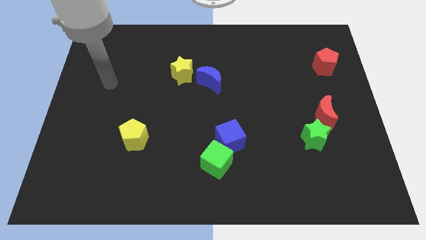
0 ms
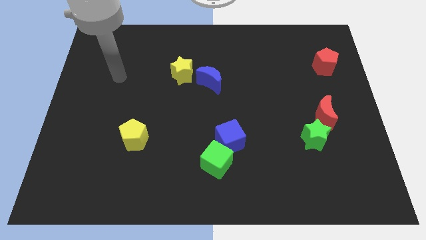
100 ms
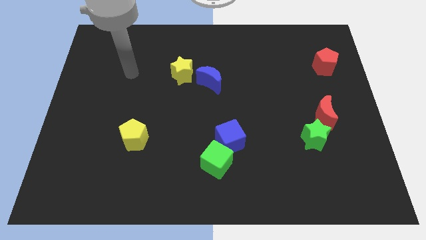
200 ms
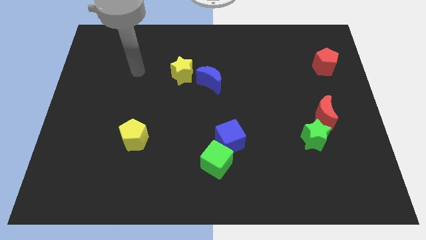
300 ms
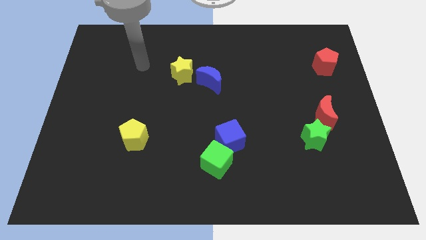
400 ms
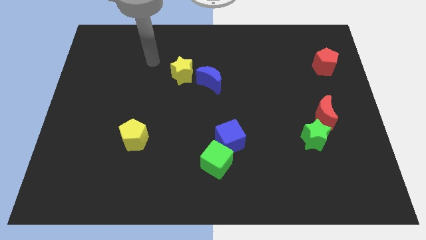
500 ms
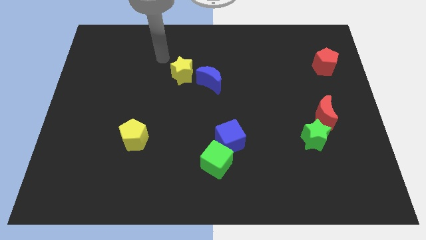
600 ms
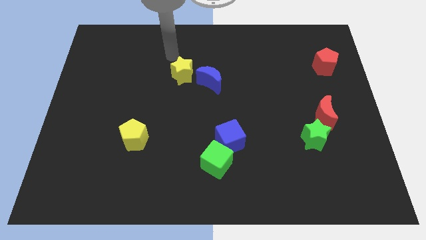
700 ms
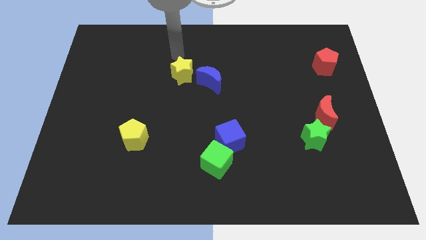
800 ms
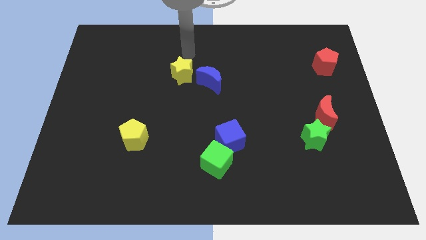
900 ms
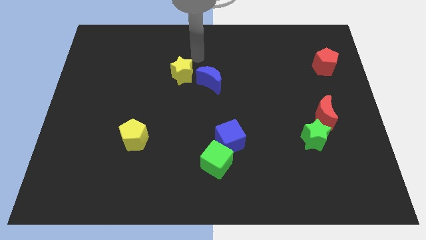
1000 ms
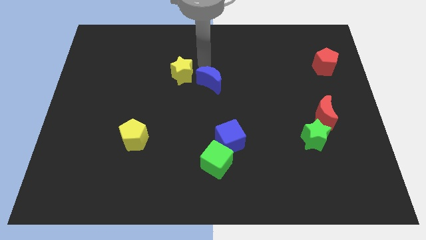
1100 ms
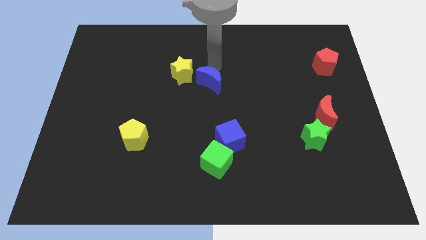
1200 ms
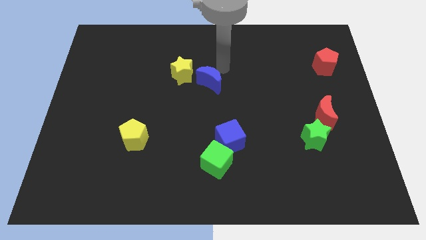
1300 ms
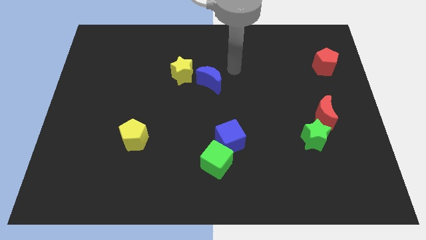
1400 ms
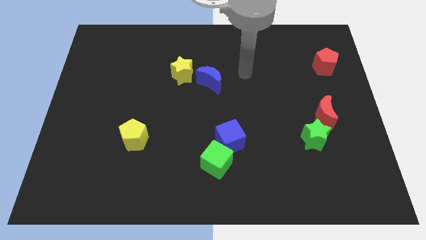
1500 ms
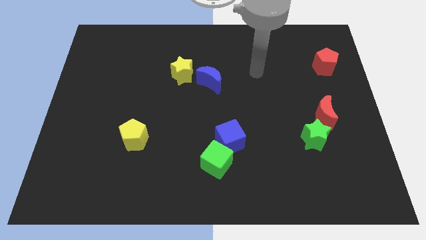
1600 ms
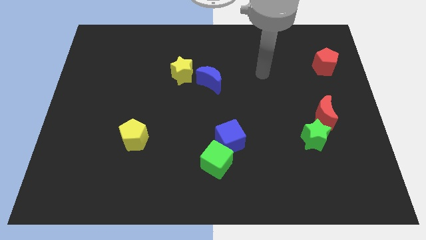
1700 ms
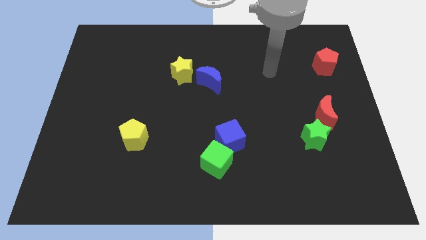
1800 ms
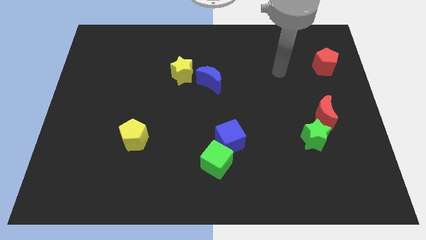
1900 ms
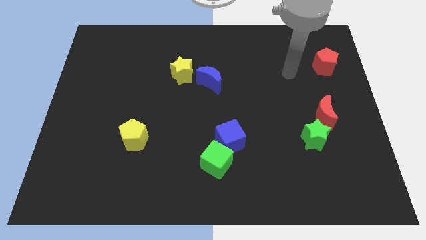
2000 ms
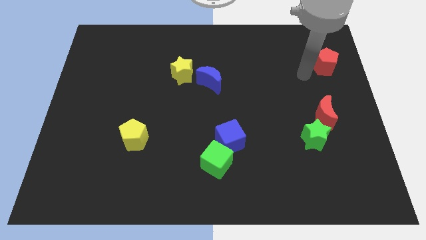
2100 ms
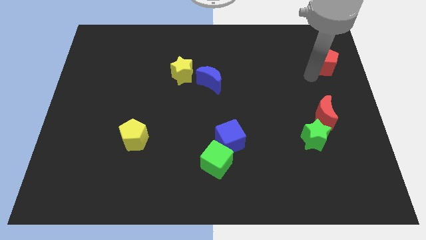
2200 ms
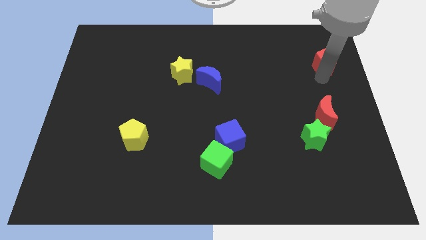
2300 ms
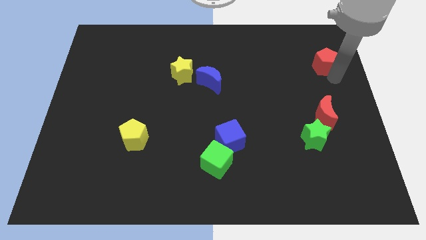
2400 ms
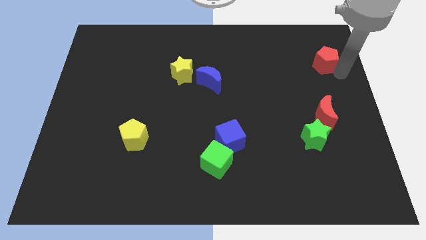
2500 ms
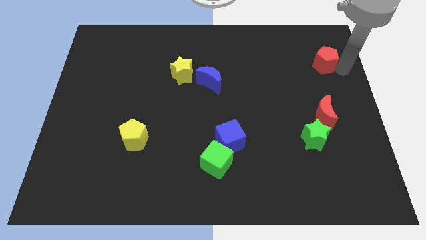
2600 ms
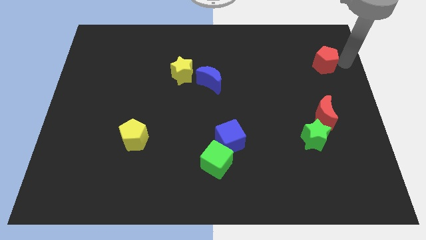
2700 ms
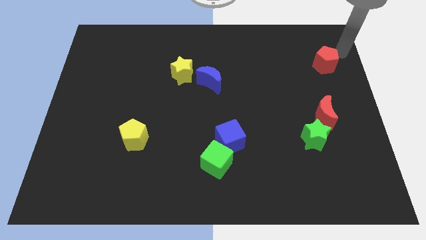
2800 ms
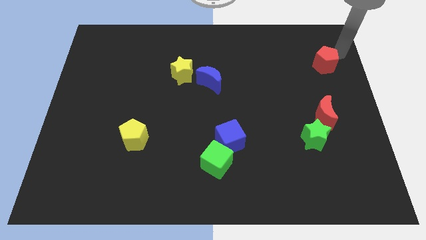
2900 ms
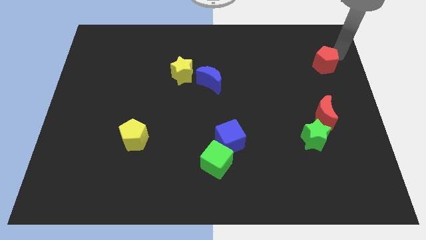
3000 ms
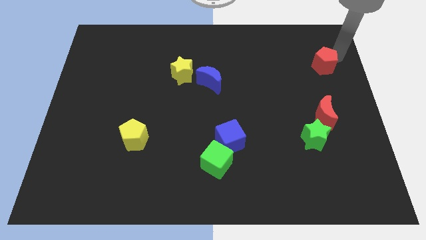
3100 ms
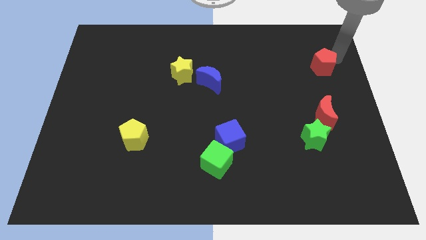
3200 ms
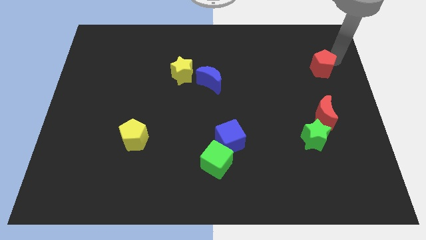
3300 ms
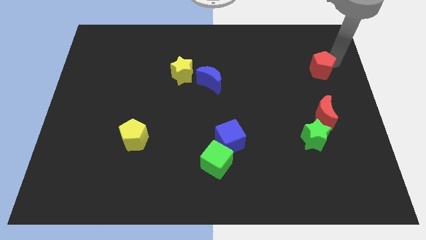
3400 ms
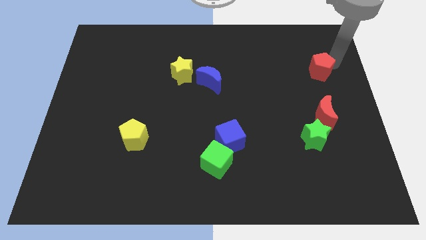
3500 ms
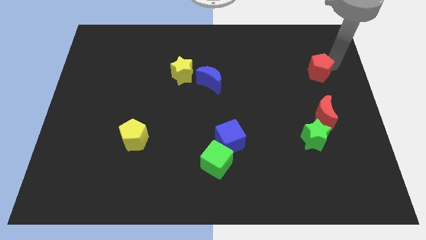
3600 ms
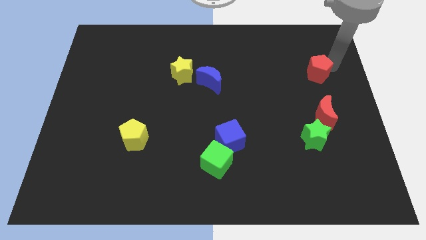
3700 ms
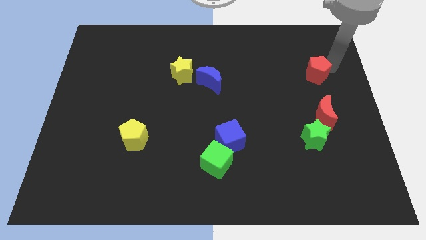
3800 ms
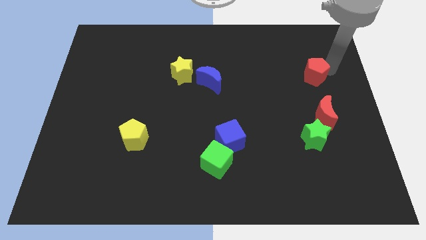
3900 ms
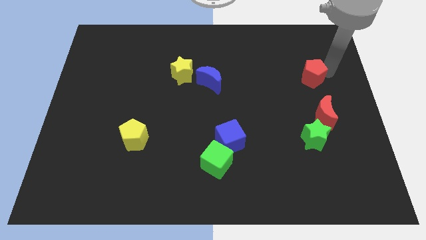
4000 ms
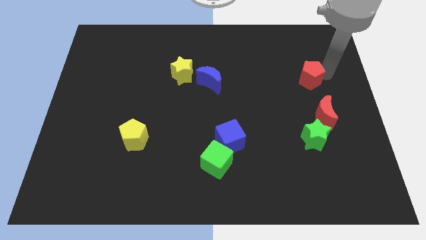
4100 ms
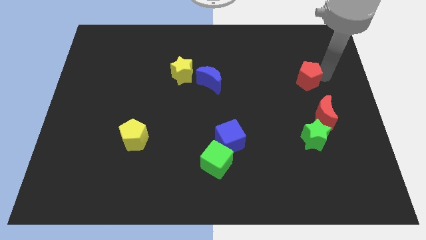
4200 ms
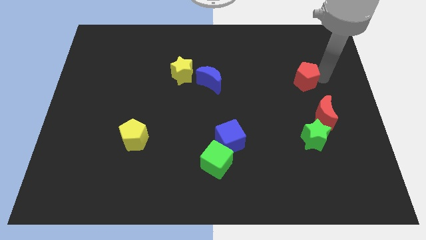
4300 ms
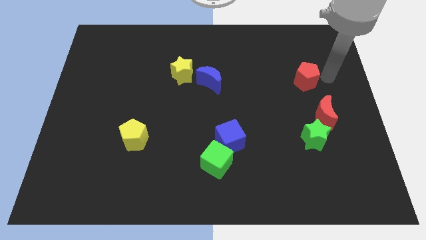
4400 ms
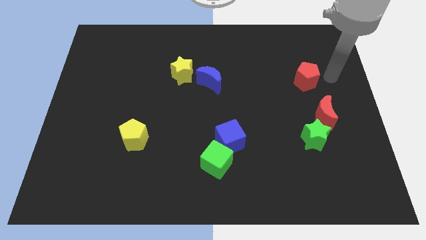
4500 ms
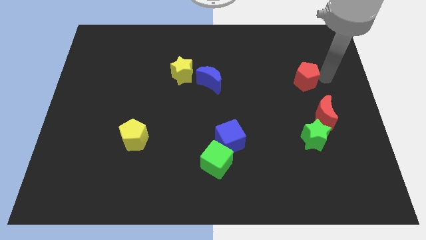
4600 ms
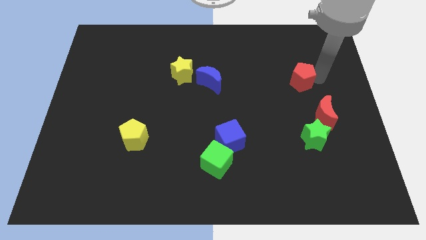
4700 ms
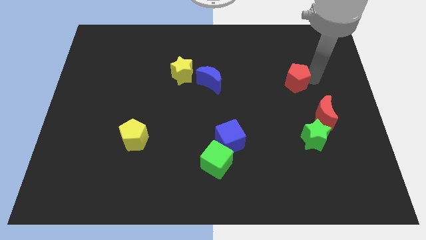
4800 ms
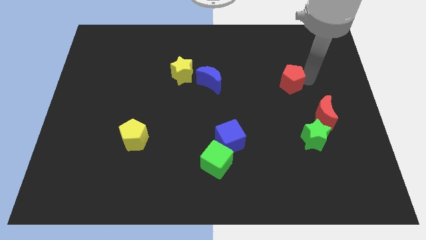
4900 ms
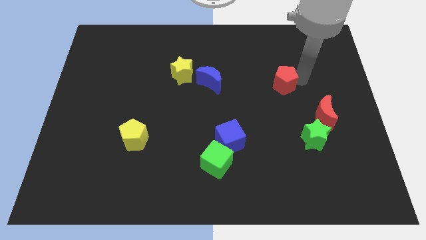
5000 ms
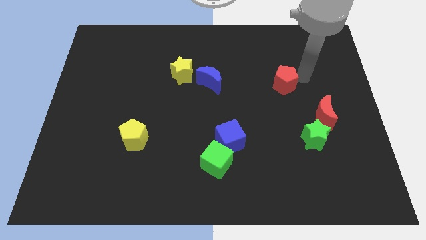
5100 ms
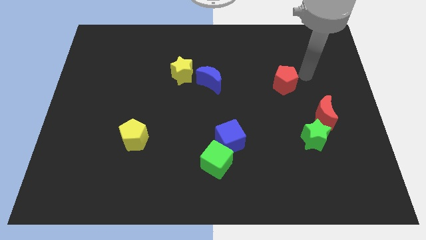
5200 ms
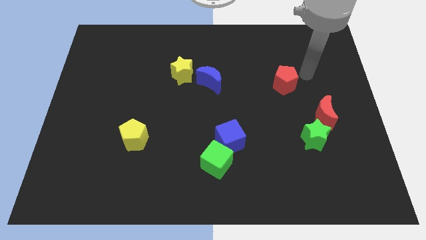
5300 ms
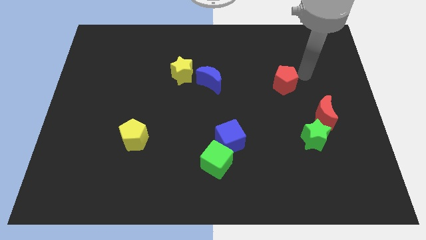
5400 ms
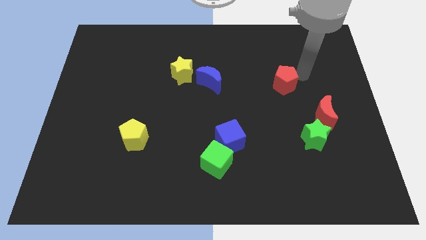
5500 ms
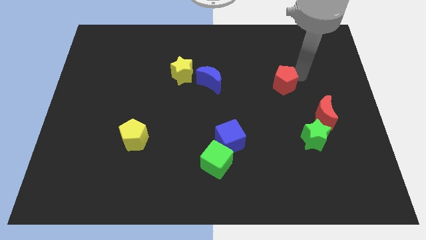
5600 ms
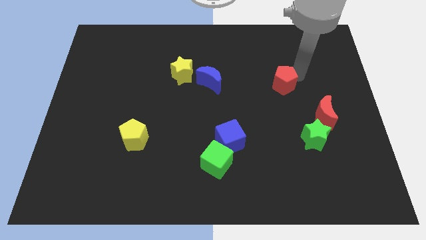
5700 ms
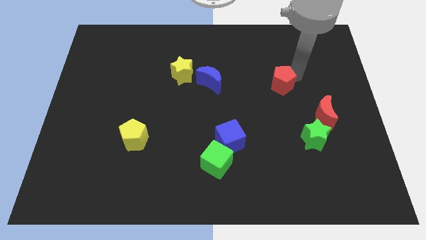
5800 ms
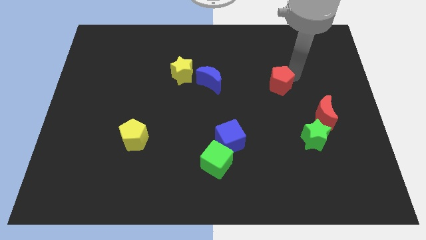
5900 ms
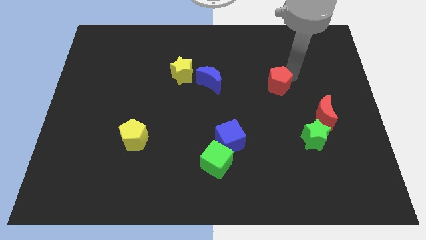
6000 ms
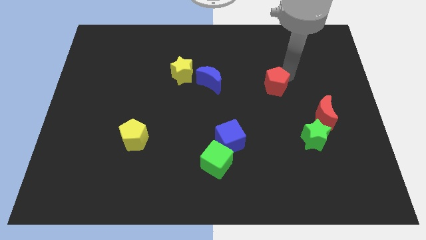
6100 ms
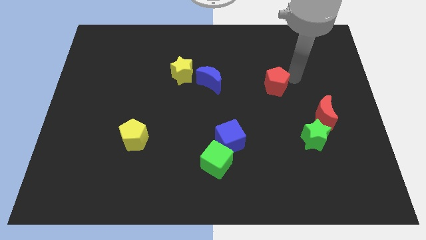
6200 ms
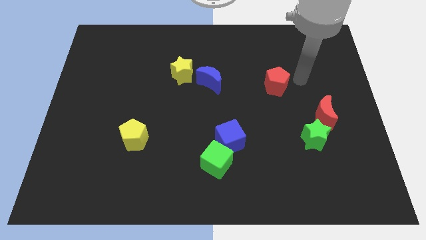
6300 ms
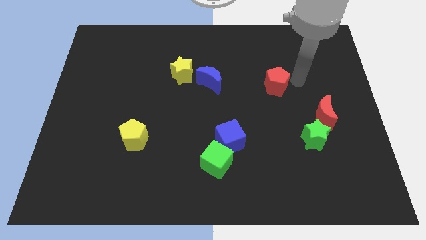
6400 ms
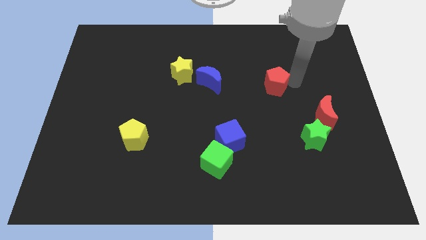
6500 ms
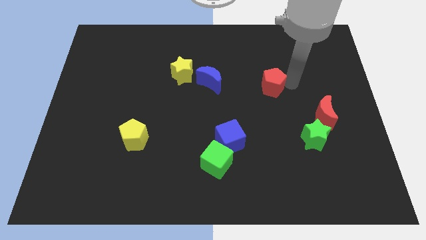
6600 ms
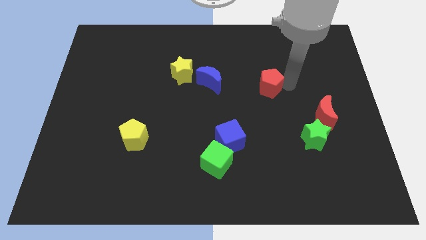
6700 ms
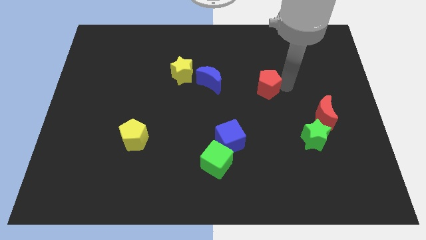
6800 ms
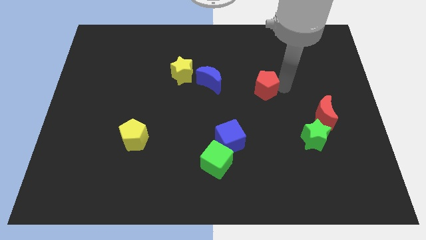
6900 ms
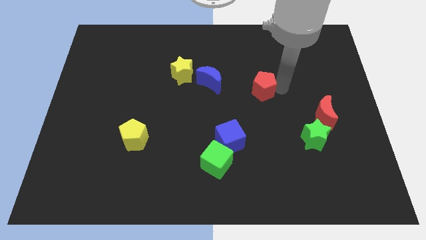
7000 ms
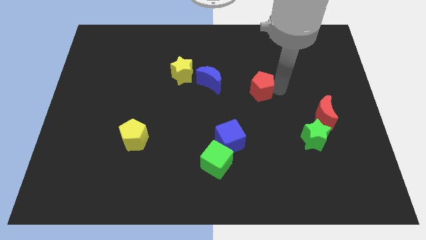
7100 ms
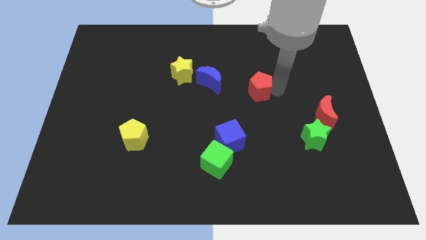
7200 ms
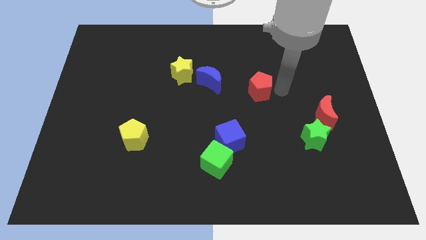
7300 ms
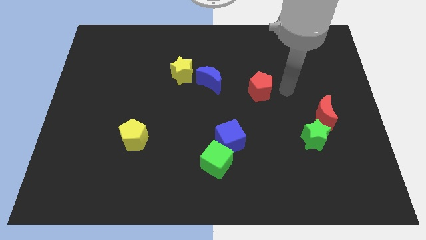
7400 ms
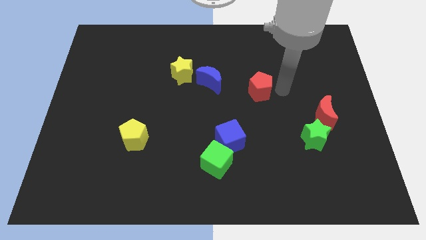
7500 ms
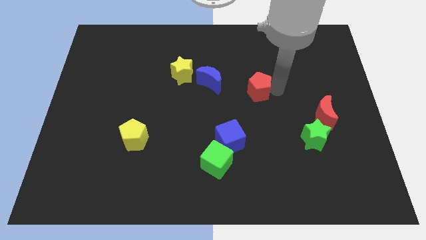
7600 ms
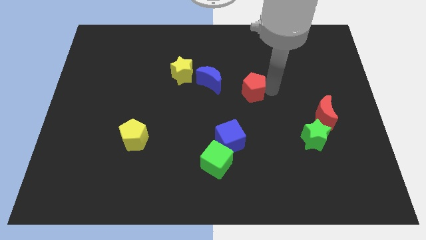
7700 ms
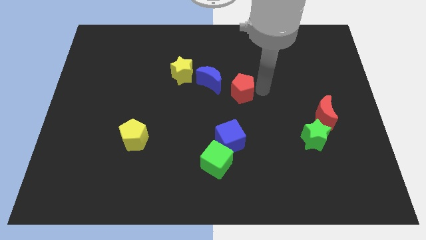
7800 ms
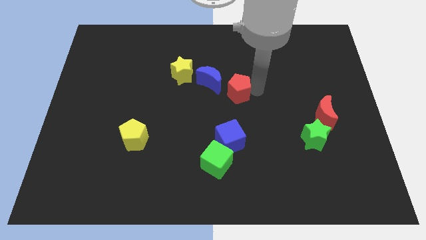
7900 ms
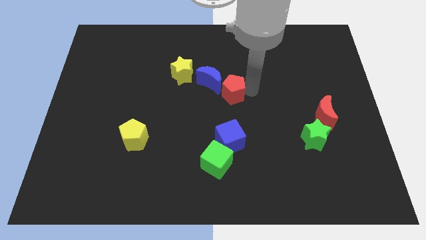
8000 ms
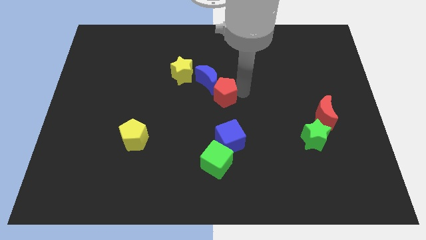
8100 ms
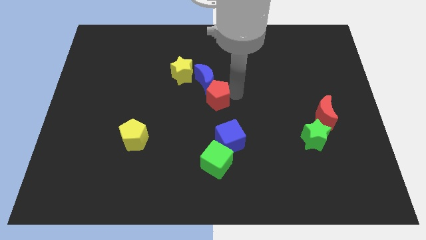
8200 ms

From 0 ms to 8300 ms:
put the red pentagon to the bottom right side of the yellow star
